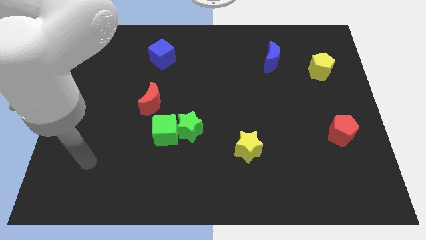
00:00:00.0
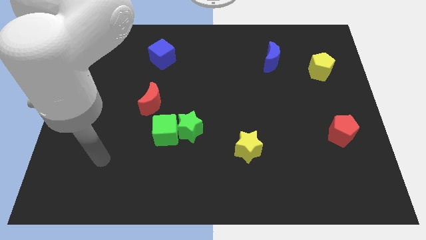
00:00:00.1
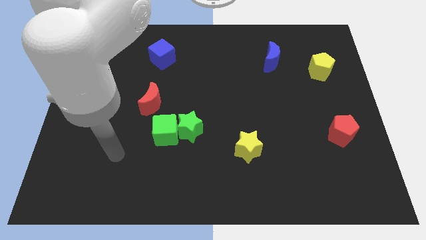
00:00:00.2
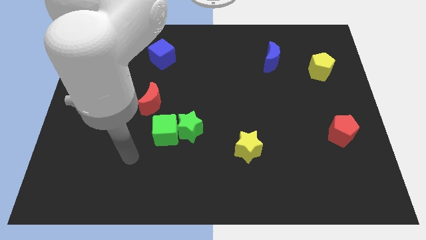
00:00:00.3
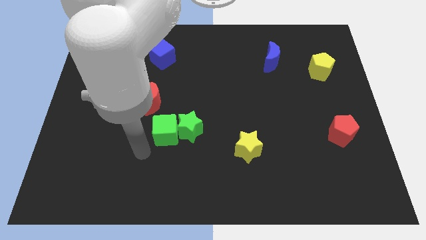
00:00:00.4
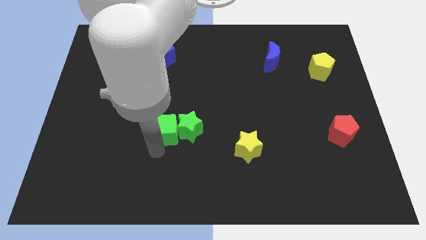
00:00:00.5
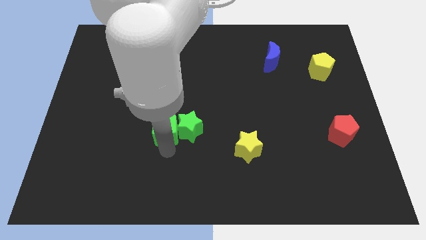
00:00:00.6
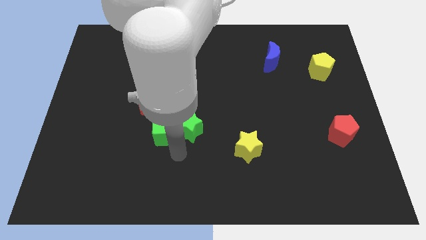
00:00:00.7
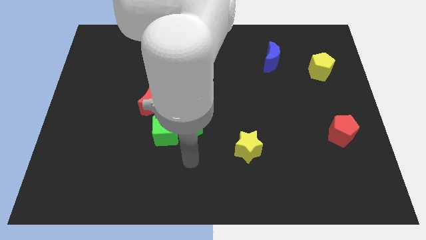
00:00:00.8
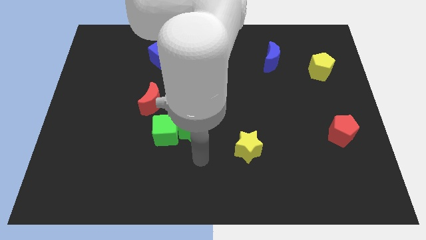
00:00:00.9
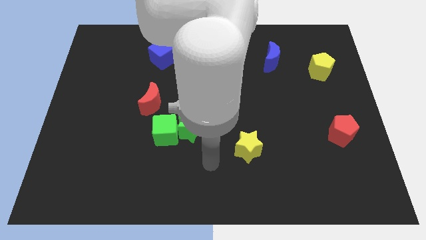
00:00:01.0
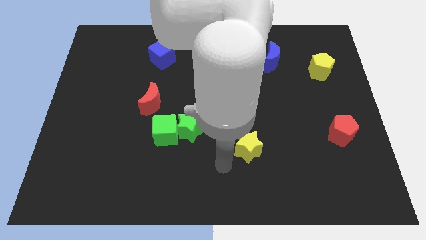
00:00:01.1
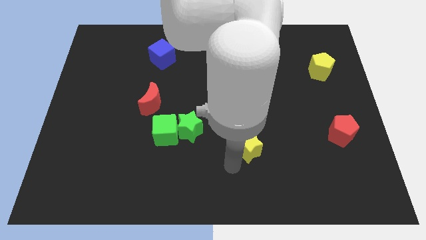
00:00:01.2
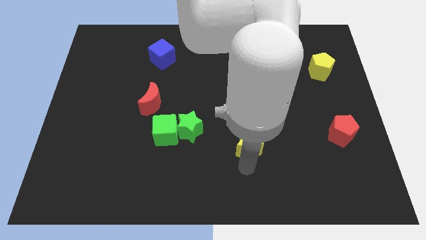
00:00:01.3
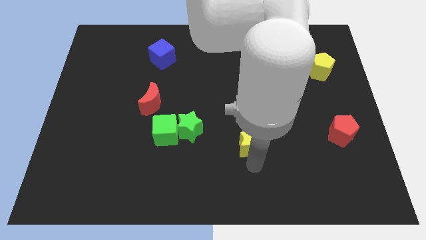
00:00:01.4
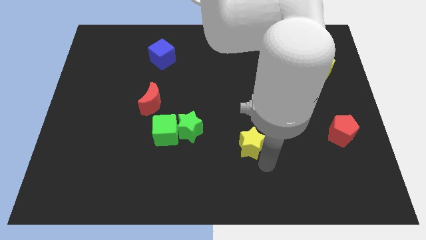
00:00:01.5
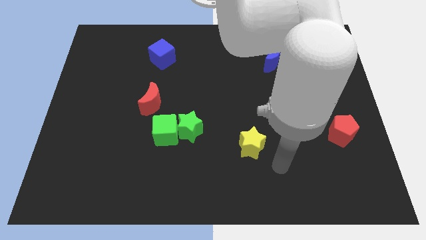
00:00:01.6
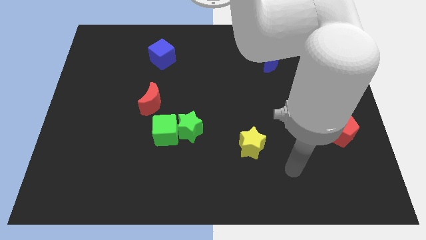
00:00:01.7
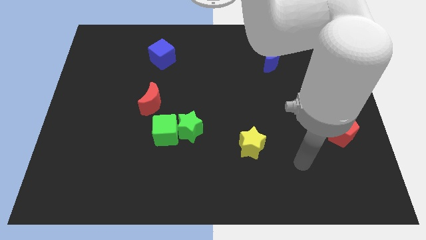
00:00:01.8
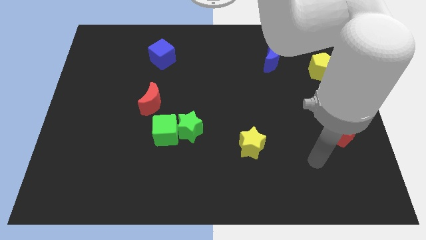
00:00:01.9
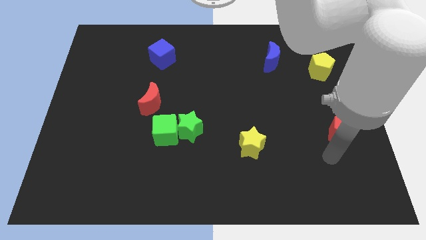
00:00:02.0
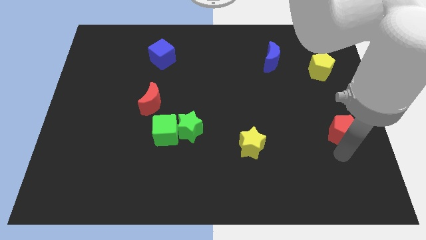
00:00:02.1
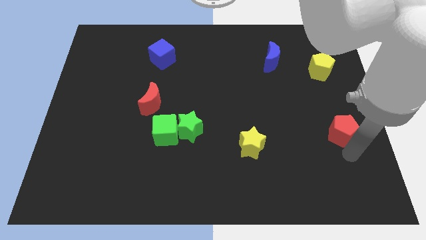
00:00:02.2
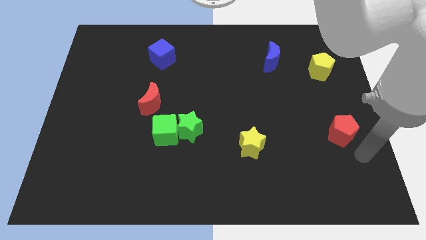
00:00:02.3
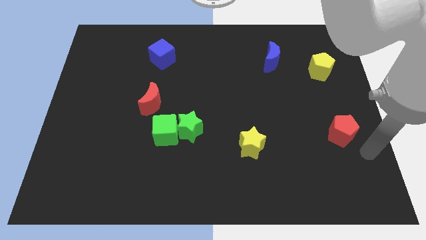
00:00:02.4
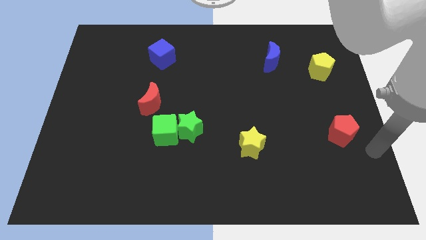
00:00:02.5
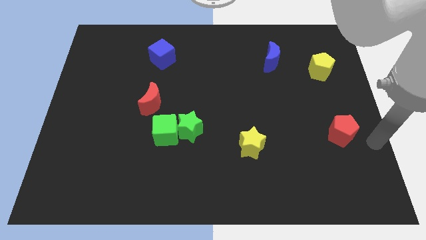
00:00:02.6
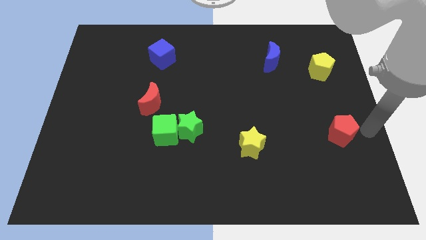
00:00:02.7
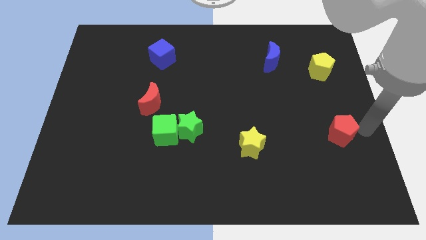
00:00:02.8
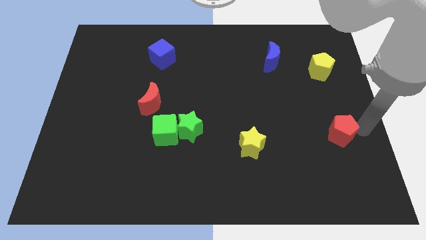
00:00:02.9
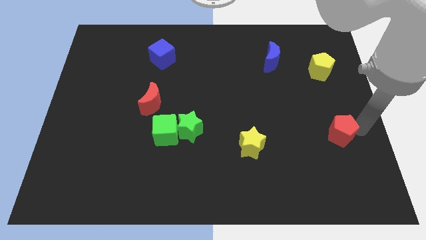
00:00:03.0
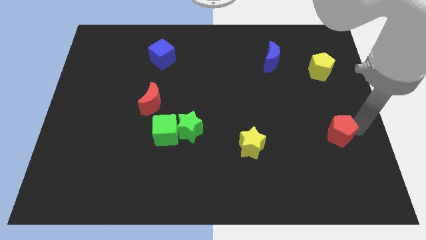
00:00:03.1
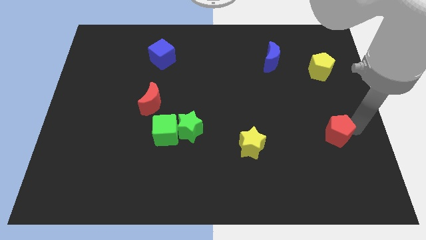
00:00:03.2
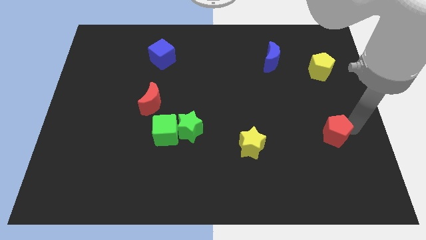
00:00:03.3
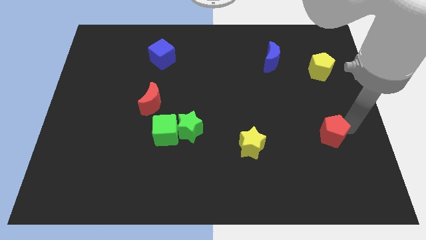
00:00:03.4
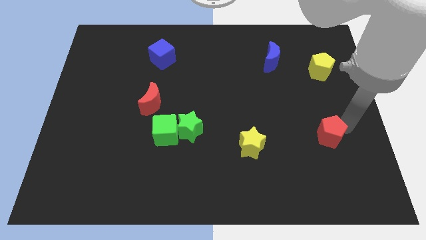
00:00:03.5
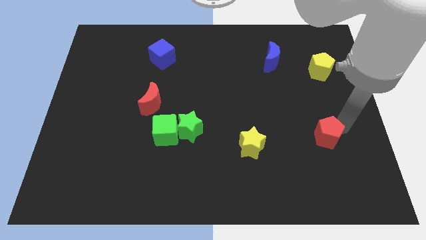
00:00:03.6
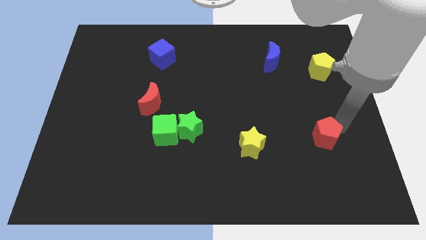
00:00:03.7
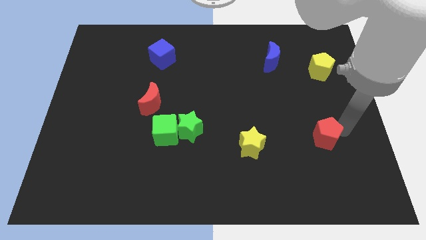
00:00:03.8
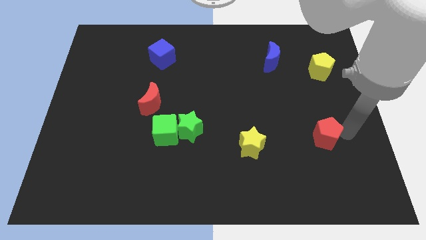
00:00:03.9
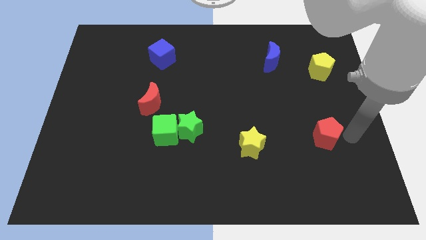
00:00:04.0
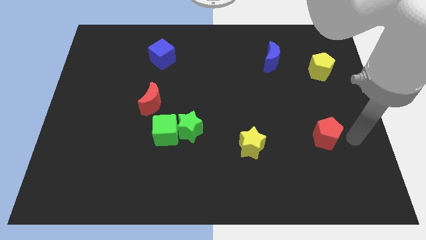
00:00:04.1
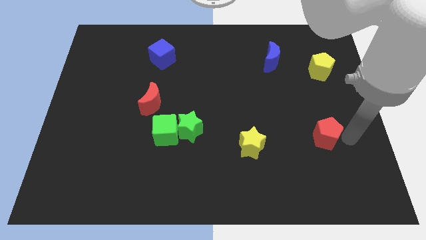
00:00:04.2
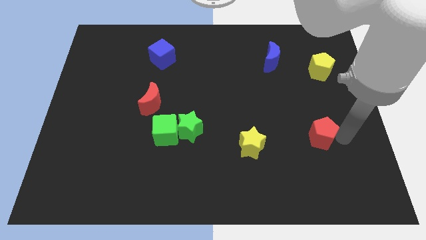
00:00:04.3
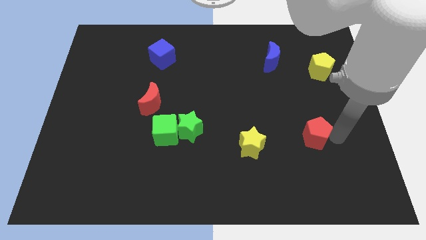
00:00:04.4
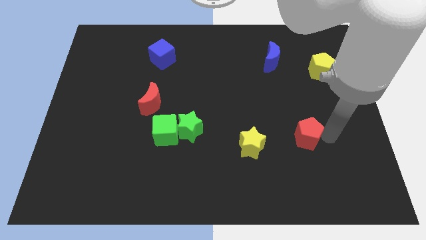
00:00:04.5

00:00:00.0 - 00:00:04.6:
push the red pentagon a little bit to the left

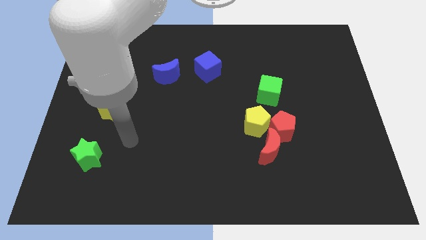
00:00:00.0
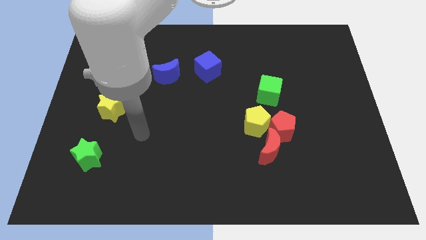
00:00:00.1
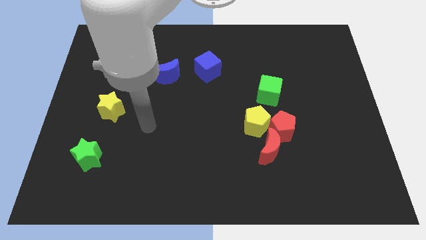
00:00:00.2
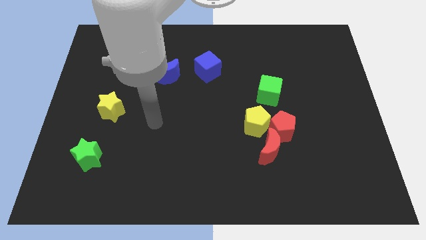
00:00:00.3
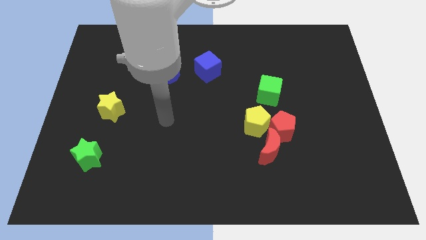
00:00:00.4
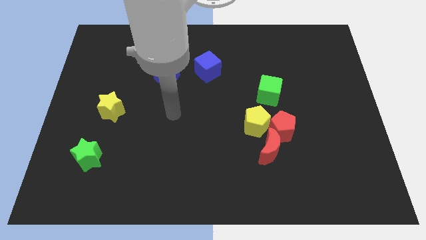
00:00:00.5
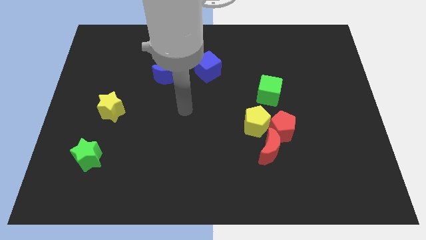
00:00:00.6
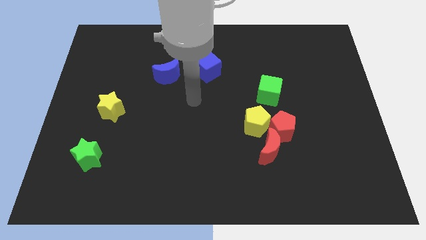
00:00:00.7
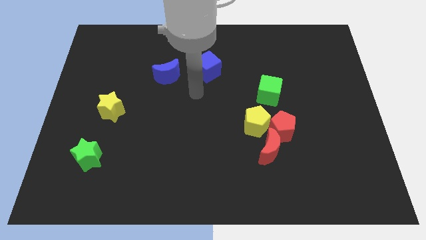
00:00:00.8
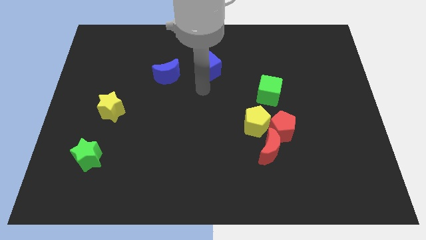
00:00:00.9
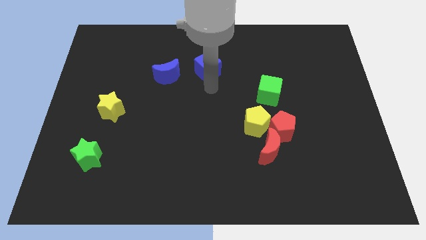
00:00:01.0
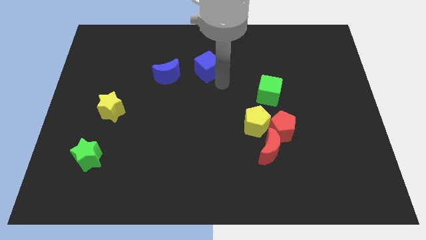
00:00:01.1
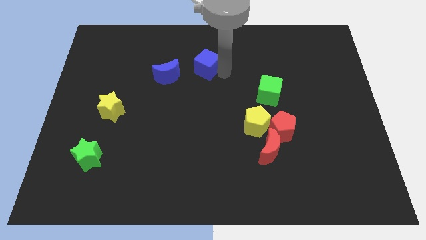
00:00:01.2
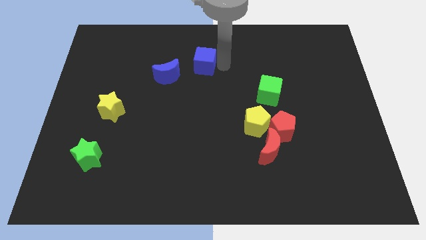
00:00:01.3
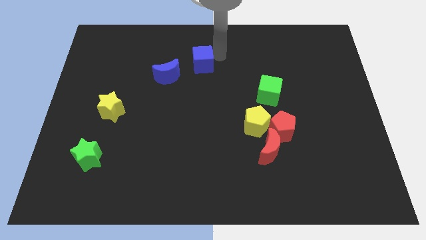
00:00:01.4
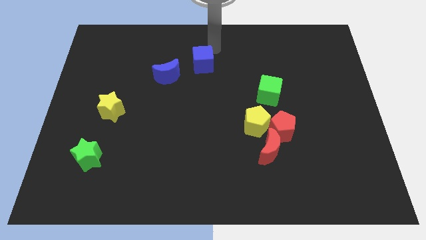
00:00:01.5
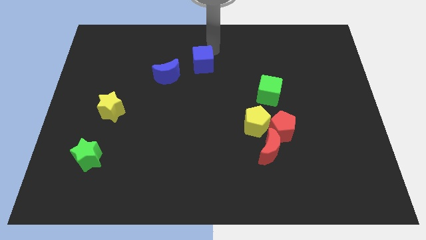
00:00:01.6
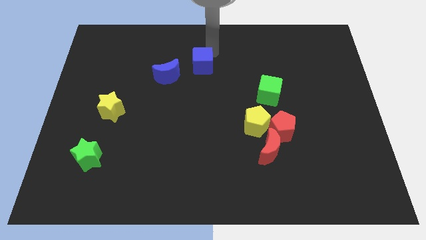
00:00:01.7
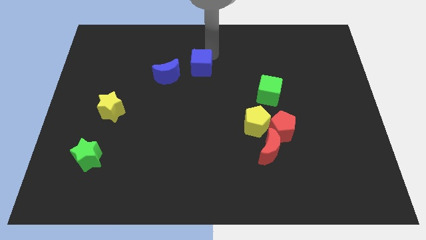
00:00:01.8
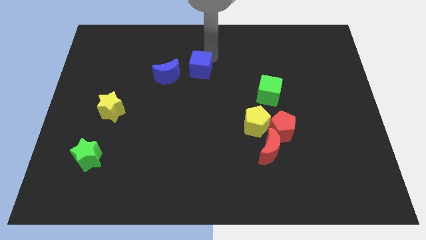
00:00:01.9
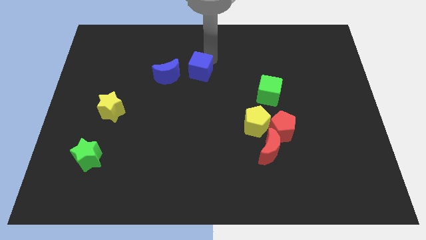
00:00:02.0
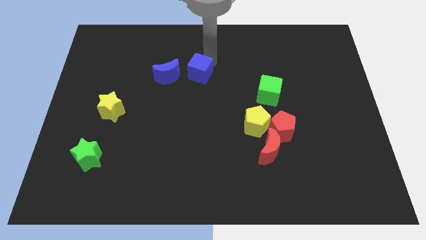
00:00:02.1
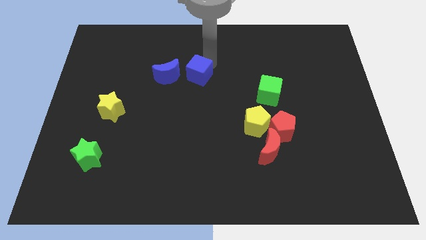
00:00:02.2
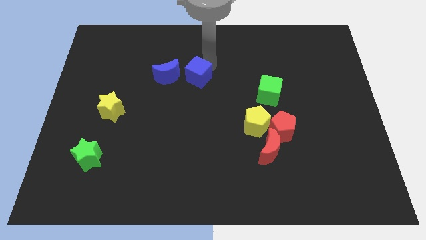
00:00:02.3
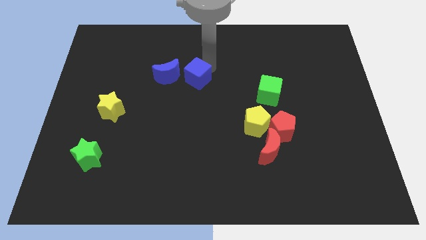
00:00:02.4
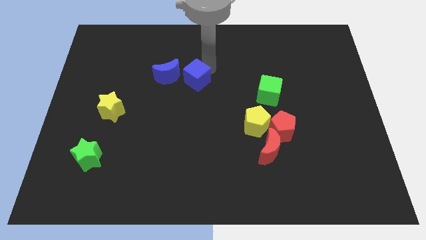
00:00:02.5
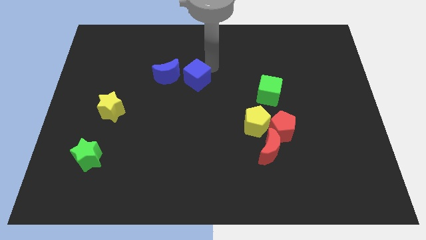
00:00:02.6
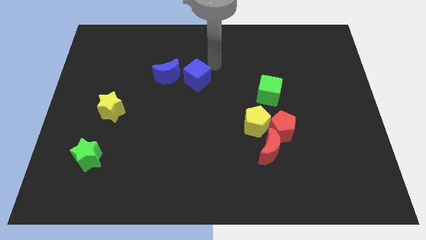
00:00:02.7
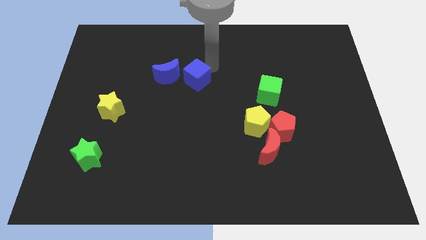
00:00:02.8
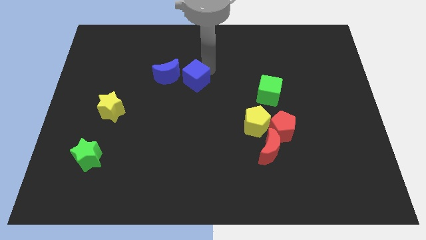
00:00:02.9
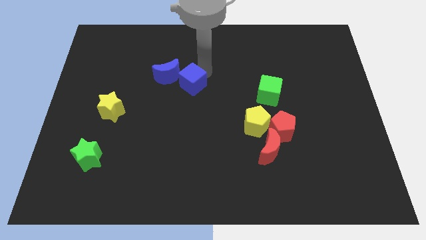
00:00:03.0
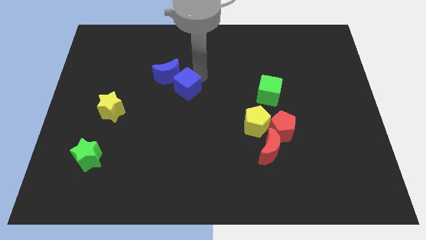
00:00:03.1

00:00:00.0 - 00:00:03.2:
slightly slide the blue cube downwards and to the left diagonally

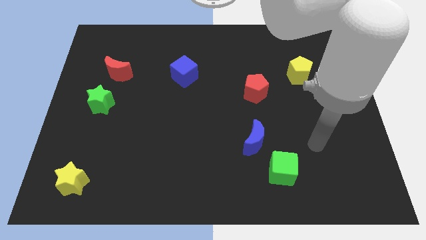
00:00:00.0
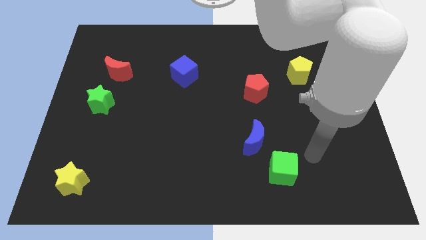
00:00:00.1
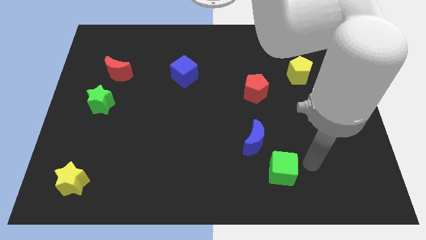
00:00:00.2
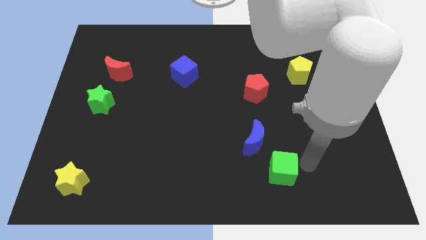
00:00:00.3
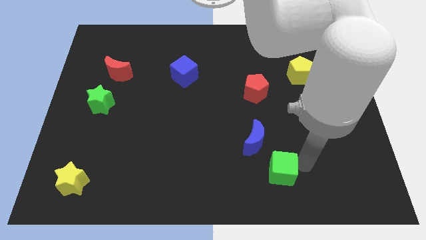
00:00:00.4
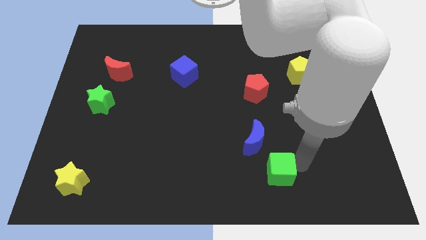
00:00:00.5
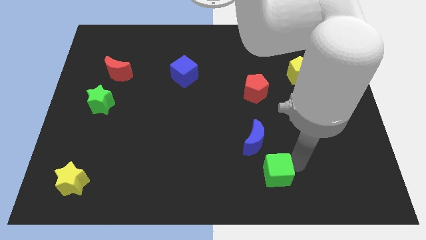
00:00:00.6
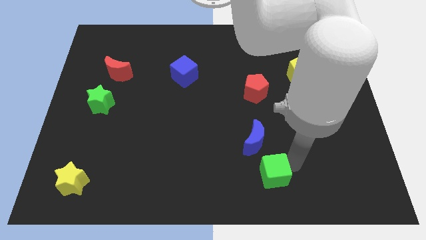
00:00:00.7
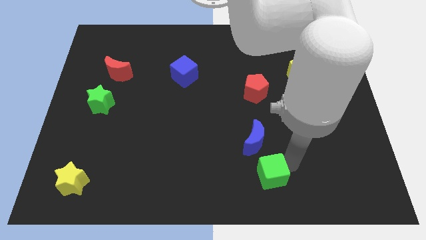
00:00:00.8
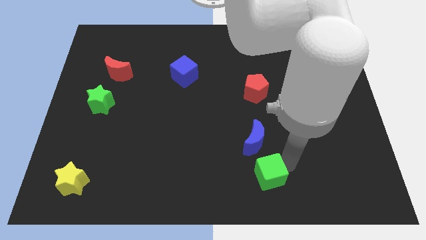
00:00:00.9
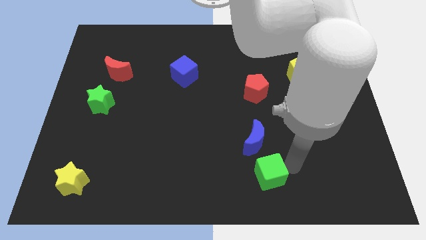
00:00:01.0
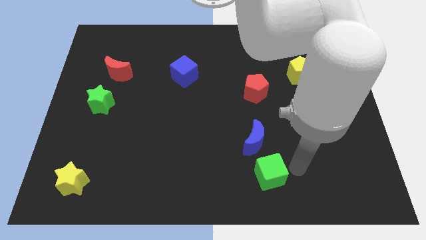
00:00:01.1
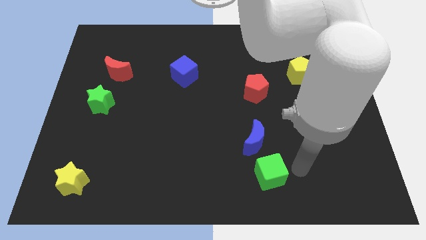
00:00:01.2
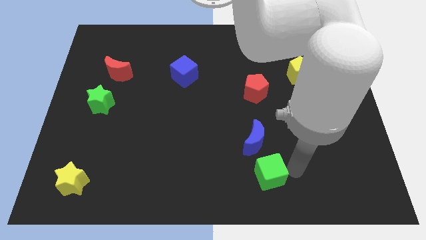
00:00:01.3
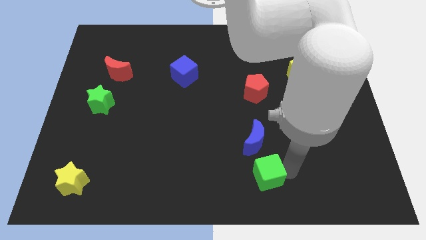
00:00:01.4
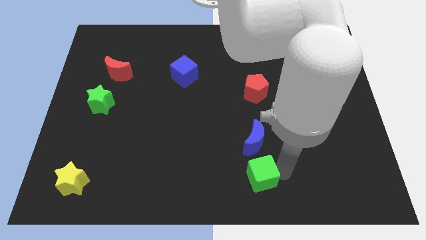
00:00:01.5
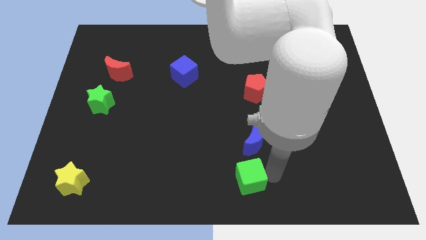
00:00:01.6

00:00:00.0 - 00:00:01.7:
push the green cube to the left a bit
